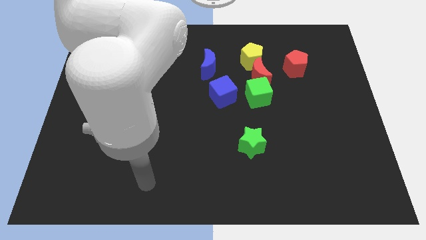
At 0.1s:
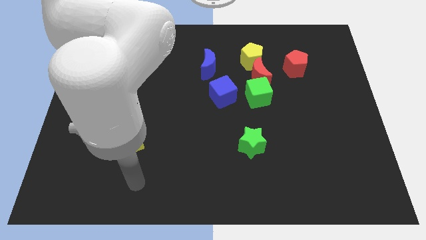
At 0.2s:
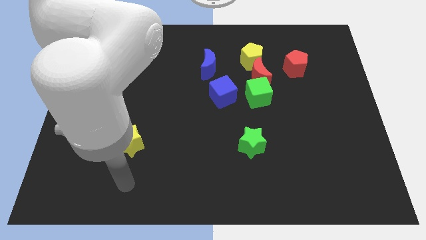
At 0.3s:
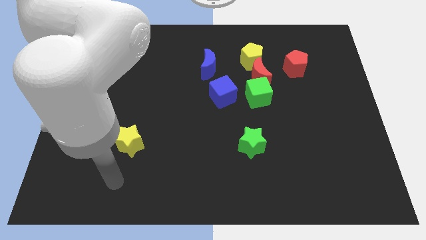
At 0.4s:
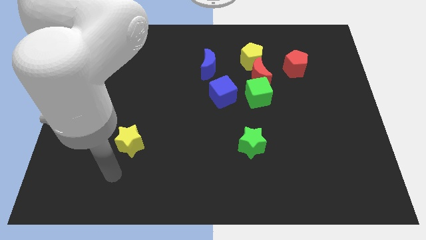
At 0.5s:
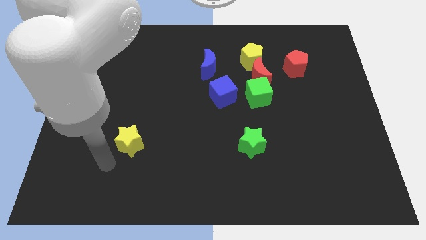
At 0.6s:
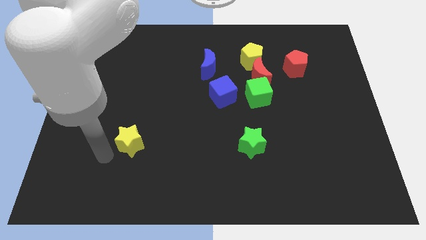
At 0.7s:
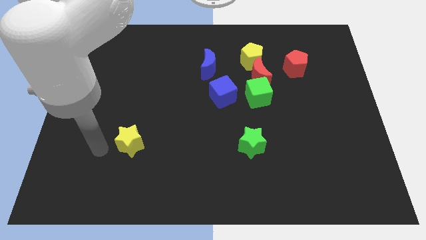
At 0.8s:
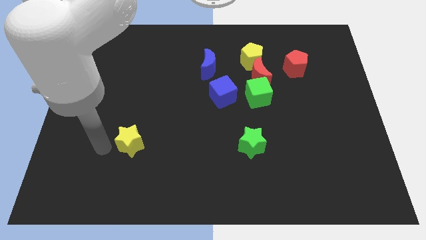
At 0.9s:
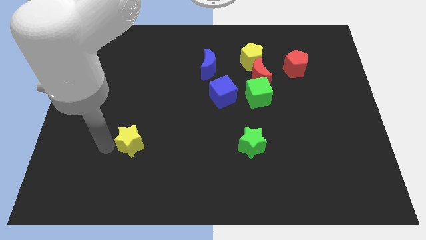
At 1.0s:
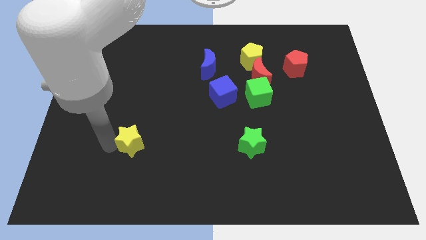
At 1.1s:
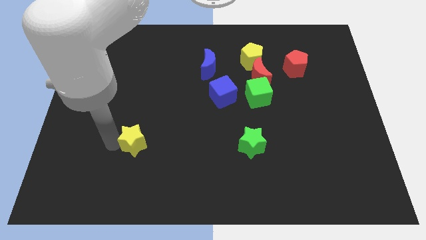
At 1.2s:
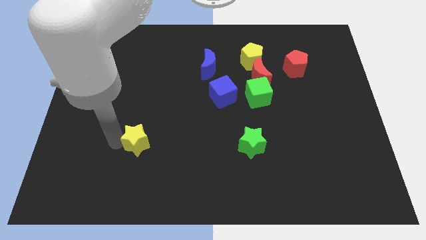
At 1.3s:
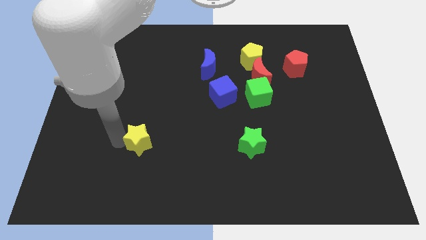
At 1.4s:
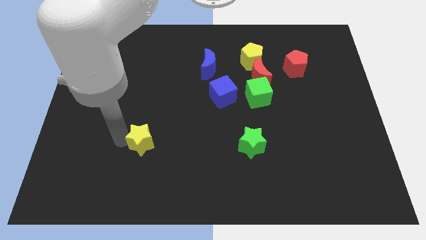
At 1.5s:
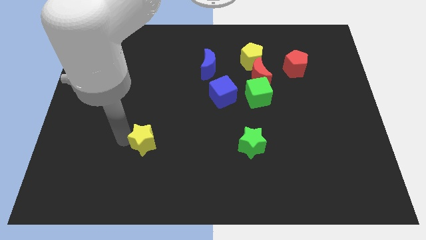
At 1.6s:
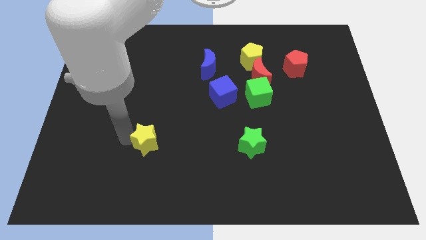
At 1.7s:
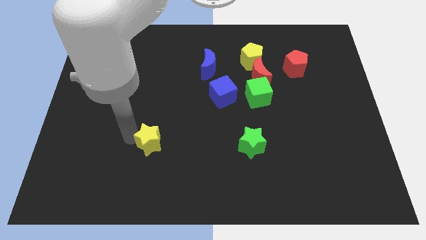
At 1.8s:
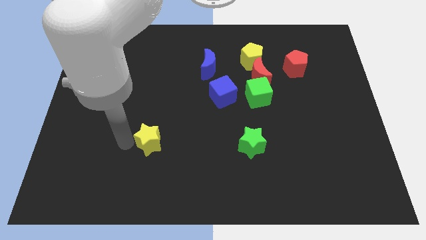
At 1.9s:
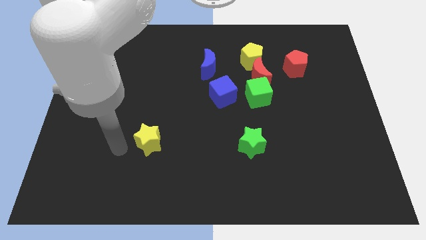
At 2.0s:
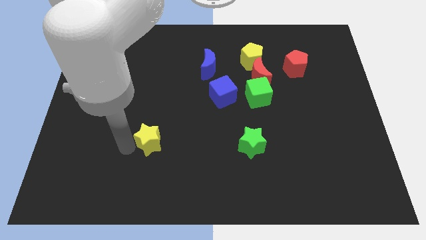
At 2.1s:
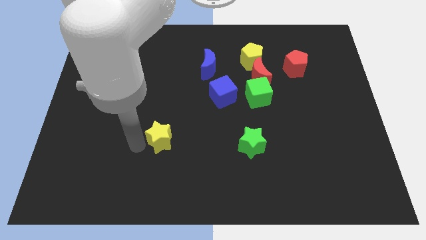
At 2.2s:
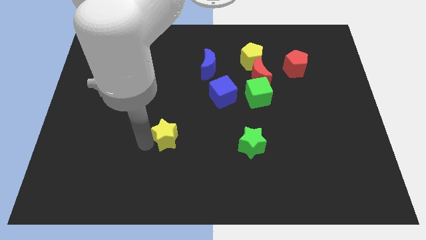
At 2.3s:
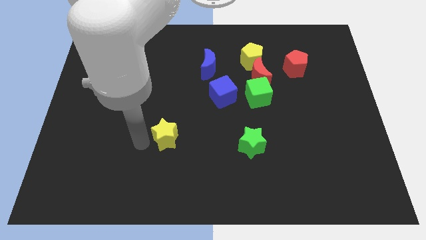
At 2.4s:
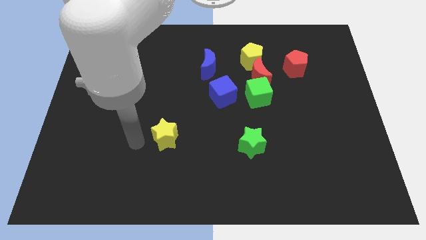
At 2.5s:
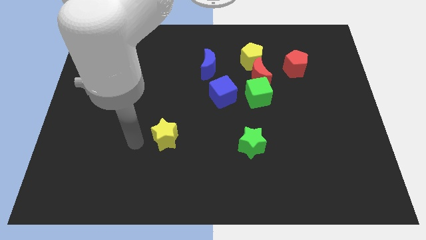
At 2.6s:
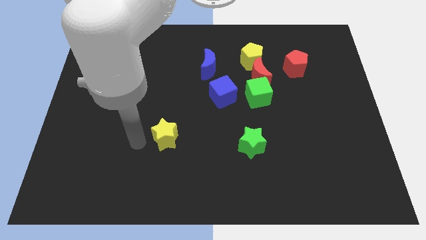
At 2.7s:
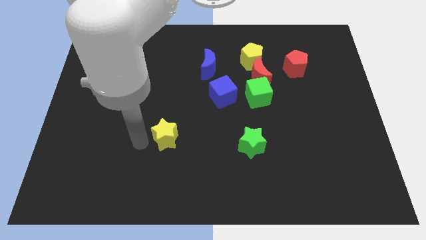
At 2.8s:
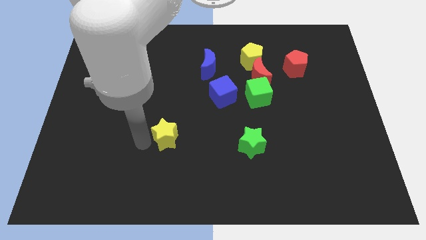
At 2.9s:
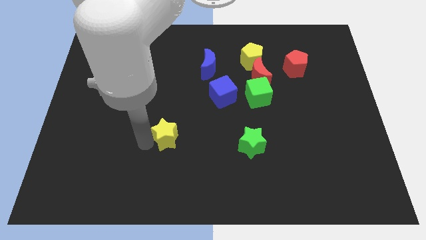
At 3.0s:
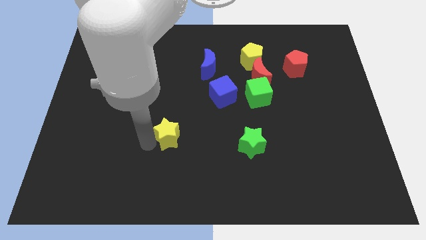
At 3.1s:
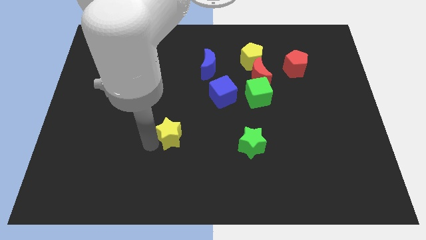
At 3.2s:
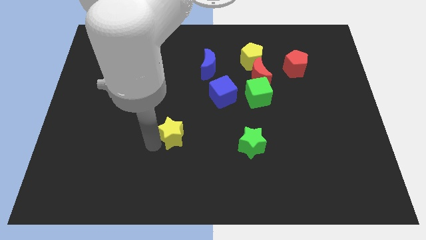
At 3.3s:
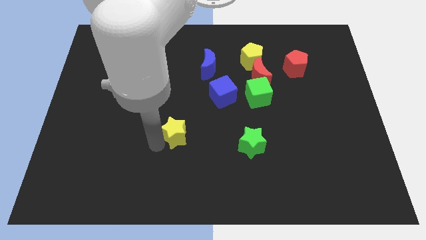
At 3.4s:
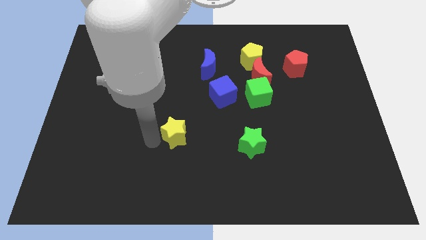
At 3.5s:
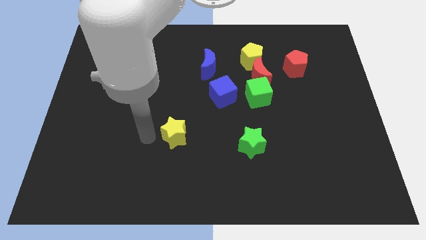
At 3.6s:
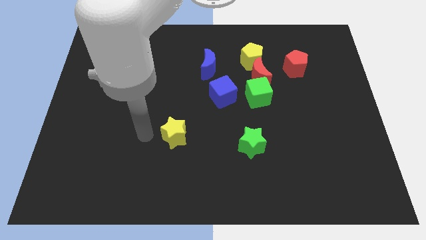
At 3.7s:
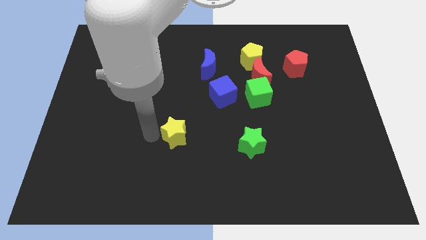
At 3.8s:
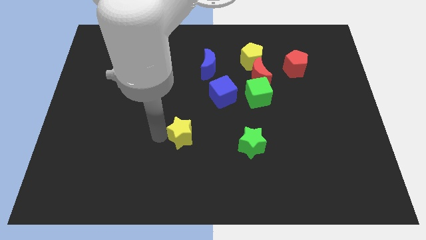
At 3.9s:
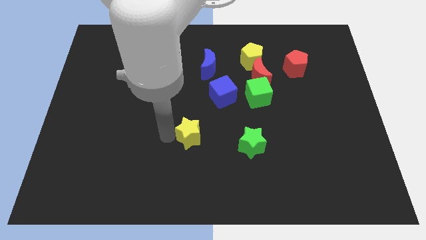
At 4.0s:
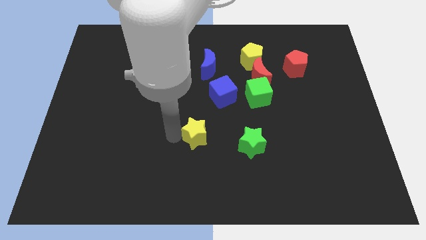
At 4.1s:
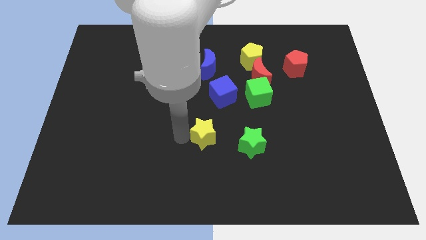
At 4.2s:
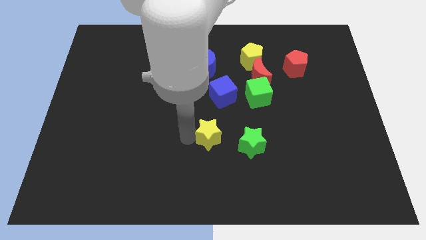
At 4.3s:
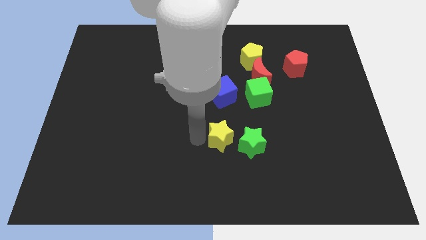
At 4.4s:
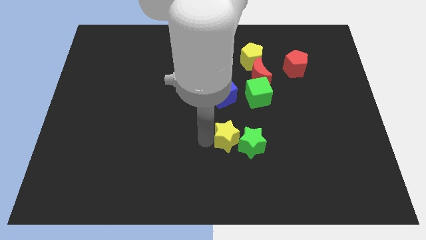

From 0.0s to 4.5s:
move the yellow star to the right

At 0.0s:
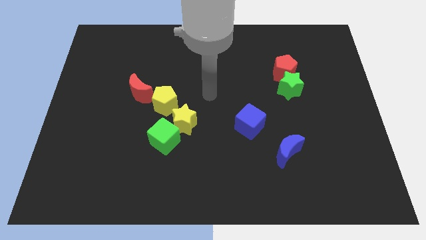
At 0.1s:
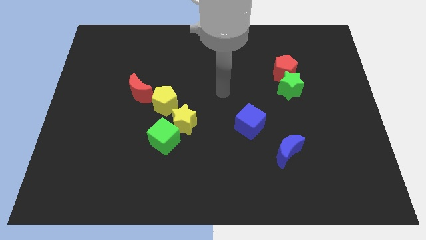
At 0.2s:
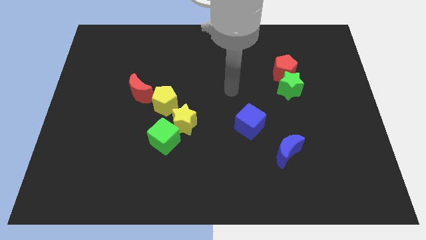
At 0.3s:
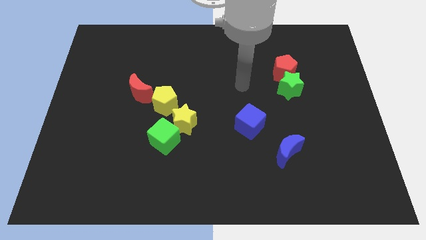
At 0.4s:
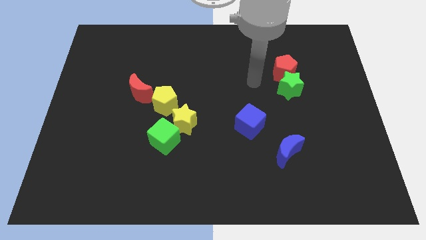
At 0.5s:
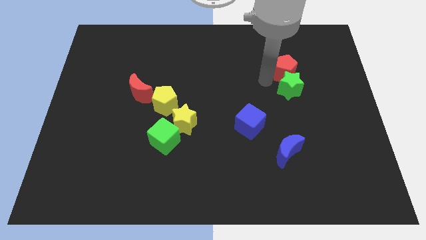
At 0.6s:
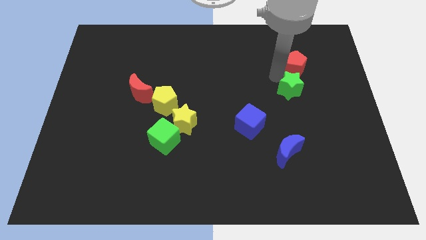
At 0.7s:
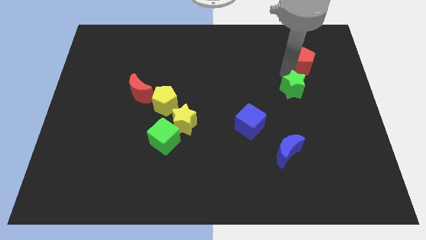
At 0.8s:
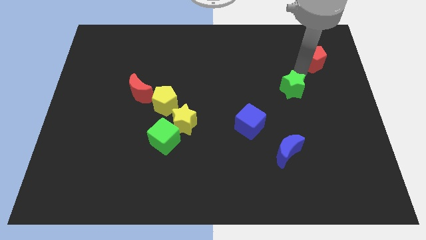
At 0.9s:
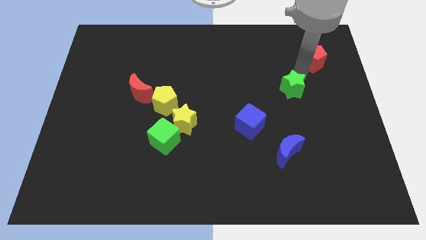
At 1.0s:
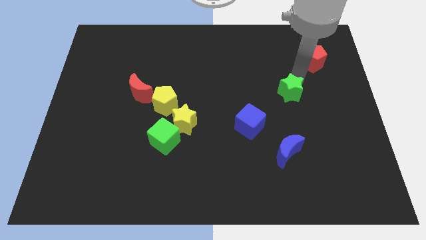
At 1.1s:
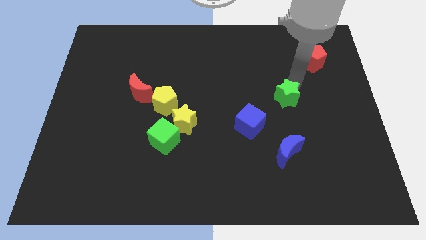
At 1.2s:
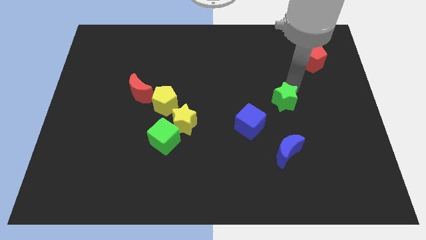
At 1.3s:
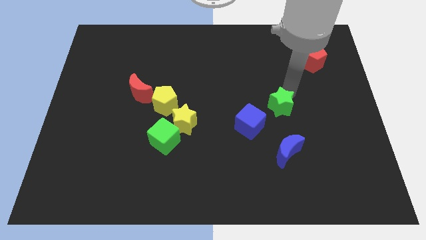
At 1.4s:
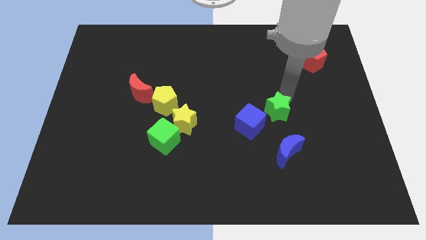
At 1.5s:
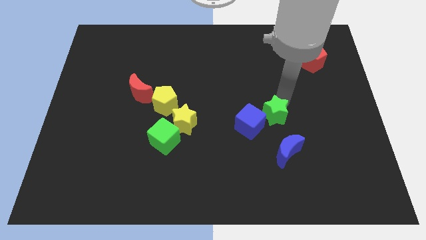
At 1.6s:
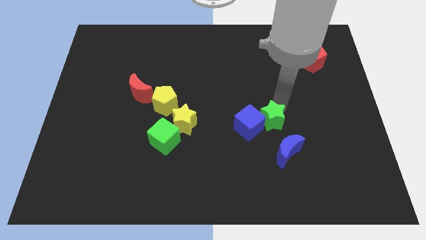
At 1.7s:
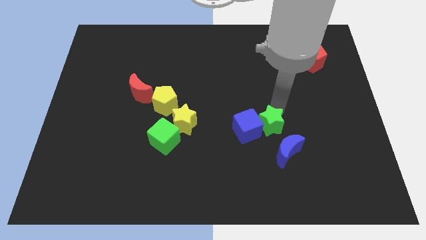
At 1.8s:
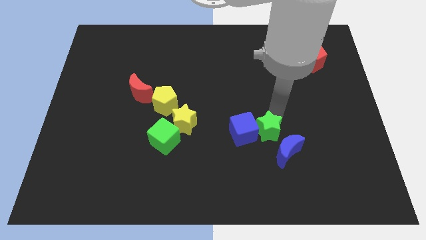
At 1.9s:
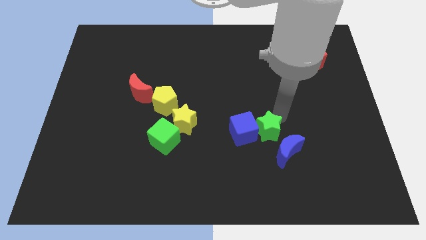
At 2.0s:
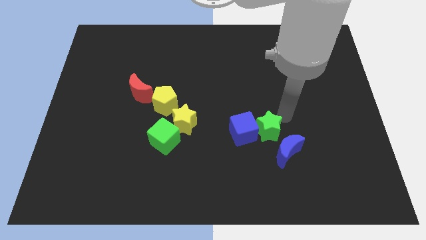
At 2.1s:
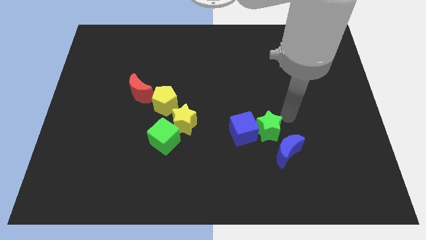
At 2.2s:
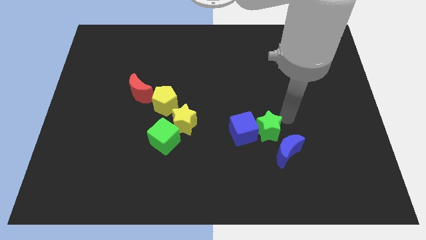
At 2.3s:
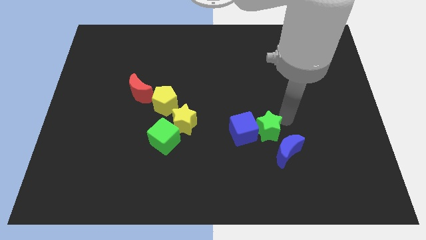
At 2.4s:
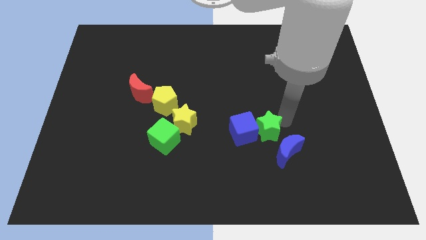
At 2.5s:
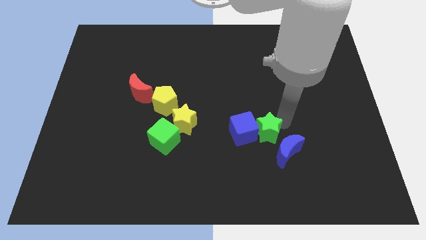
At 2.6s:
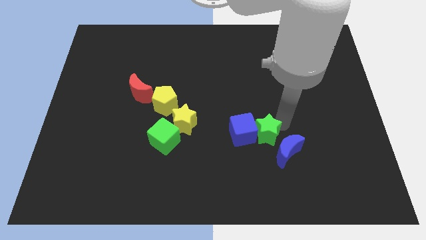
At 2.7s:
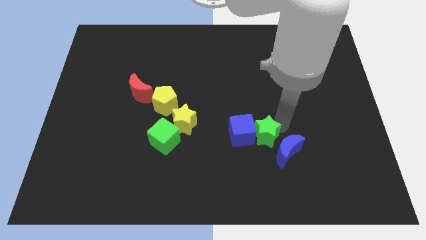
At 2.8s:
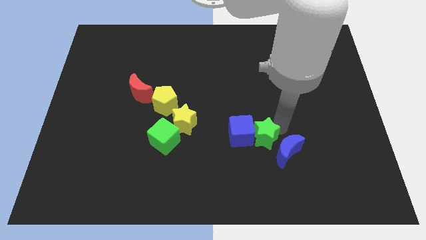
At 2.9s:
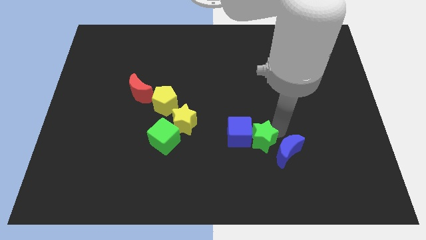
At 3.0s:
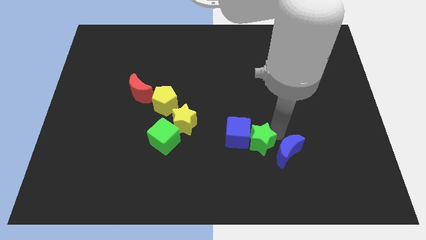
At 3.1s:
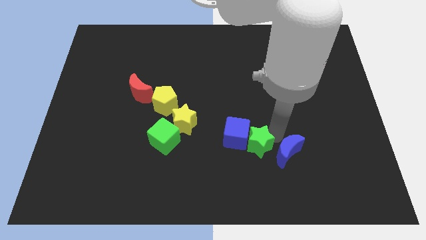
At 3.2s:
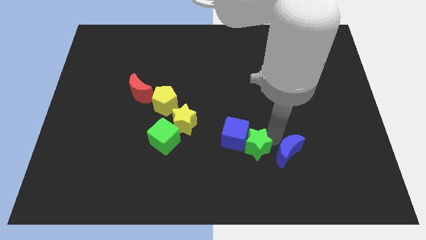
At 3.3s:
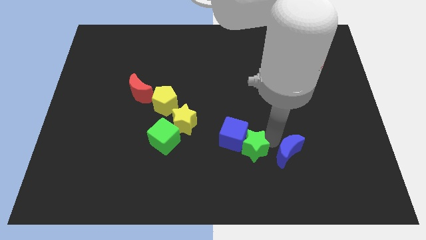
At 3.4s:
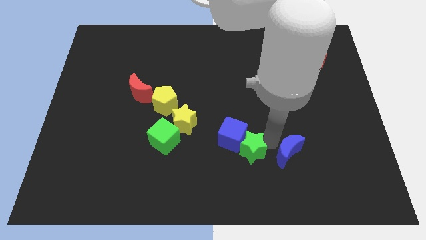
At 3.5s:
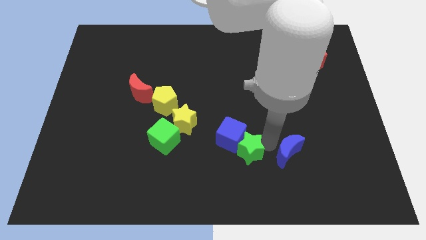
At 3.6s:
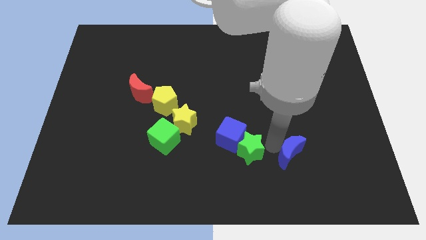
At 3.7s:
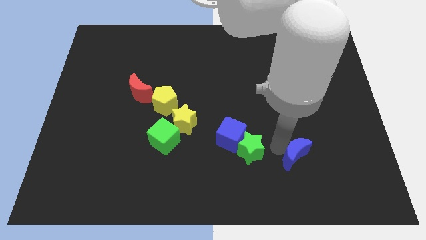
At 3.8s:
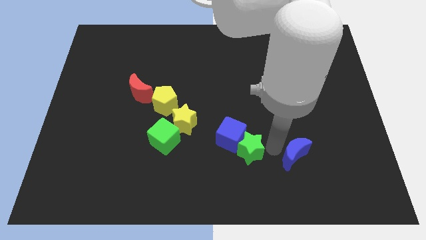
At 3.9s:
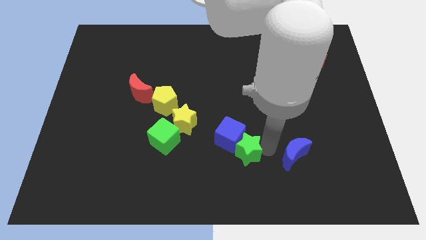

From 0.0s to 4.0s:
push the green star downwards and left
